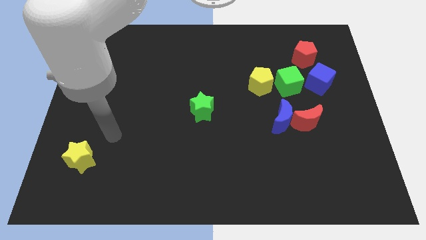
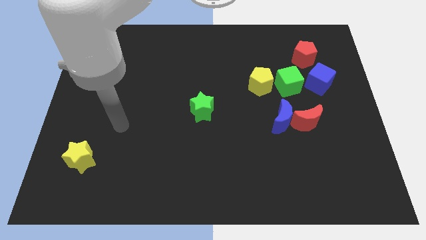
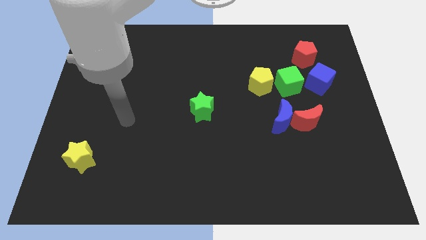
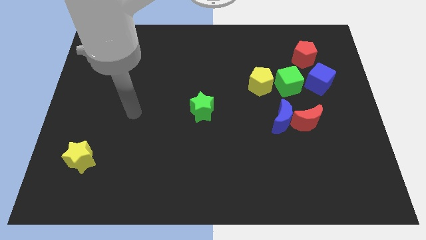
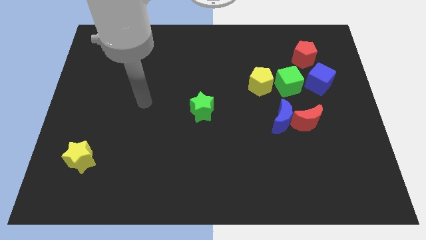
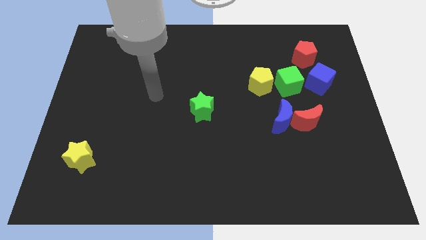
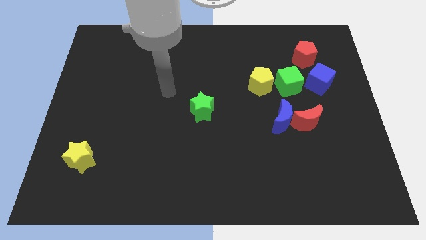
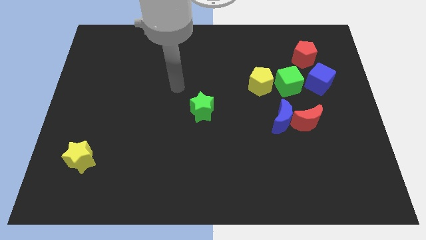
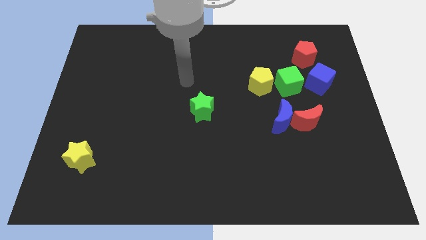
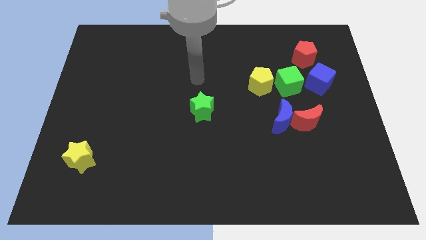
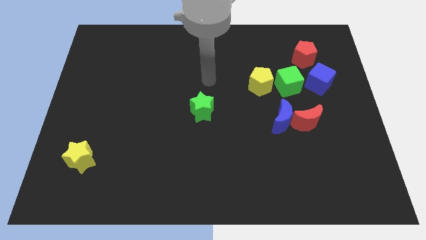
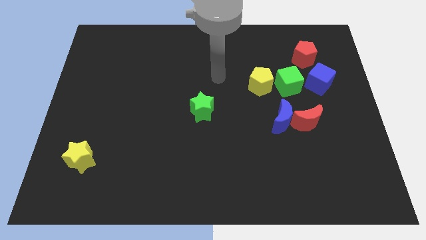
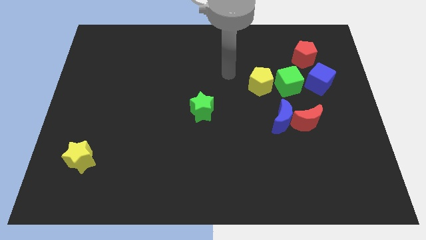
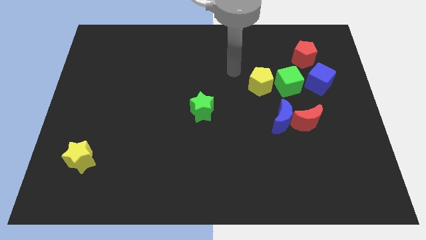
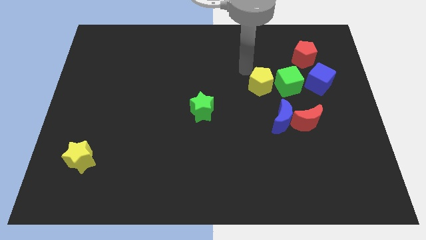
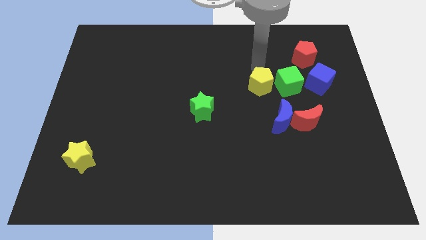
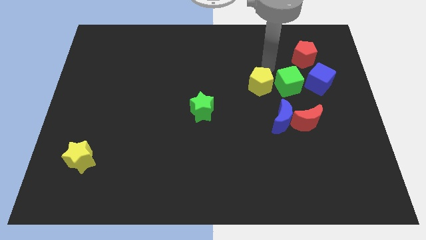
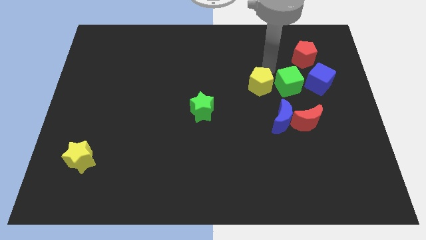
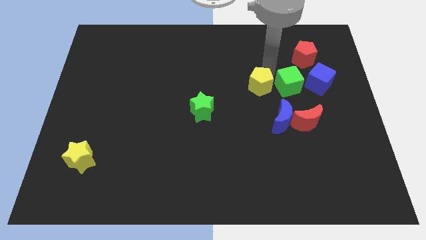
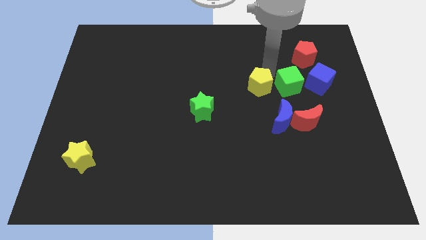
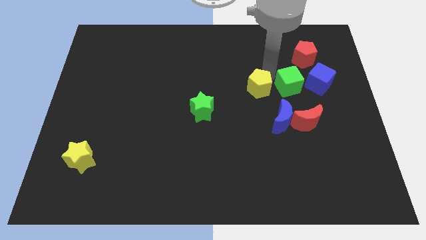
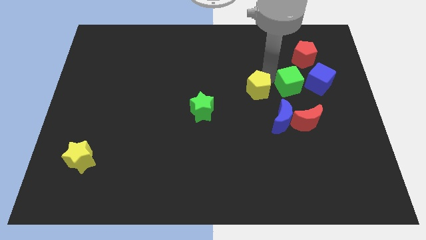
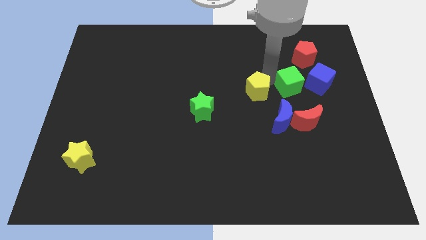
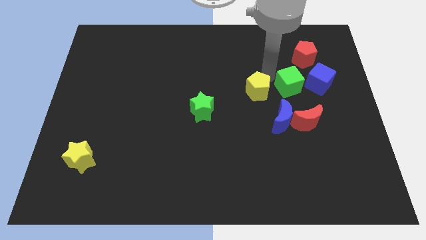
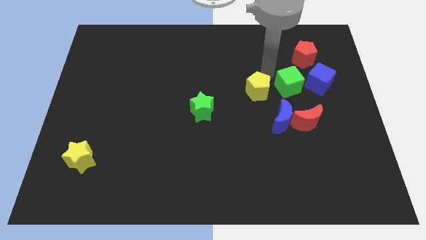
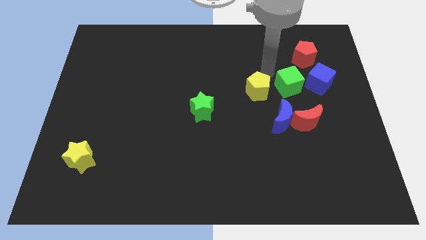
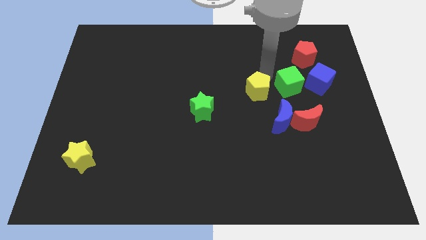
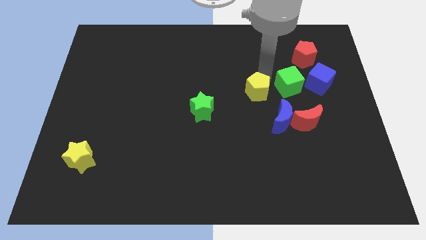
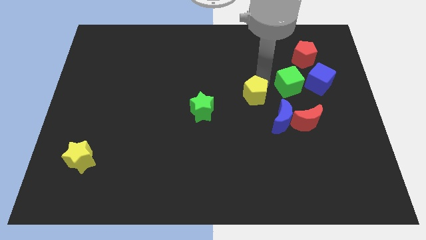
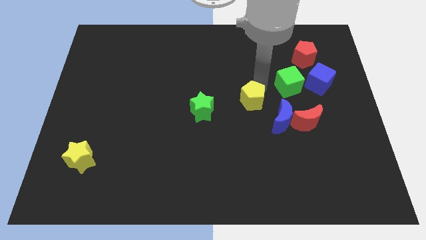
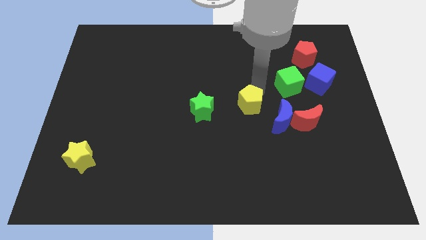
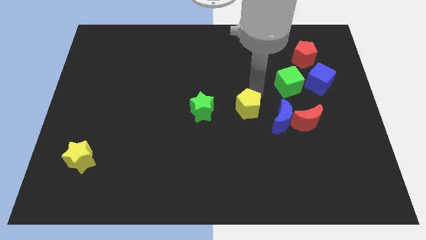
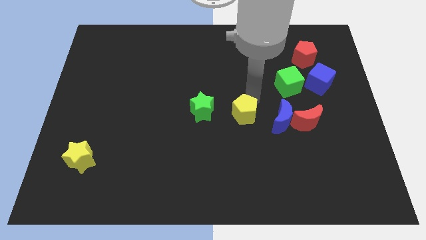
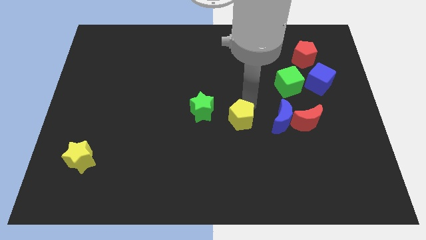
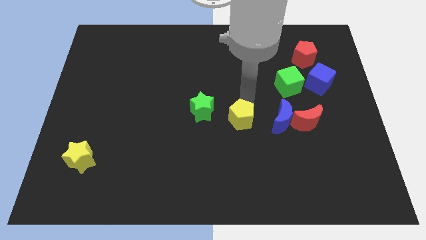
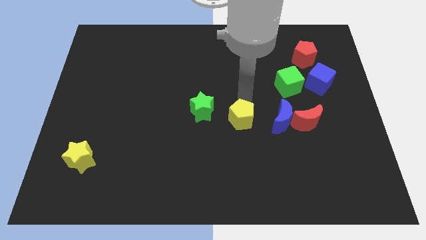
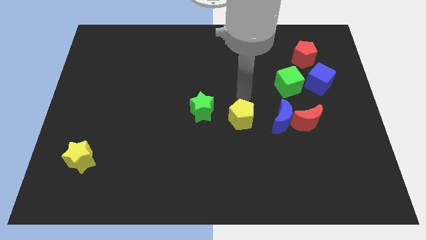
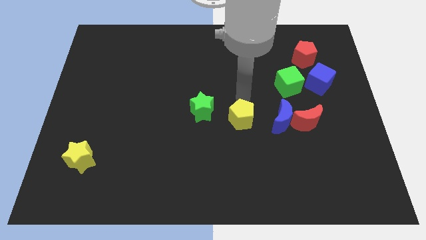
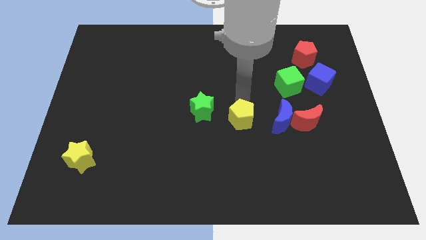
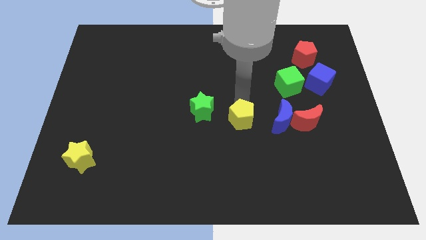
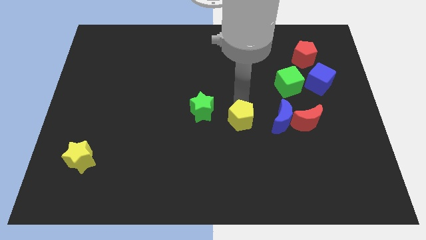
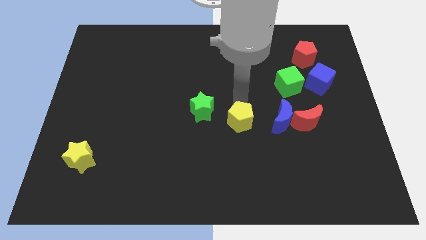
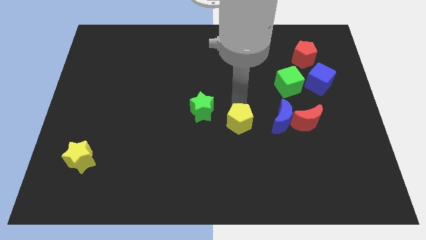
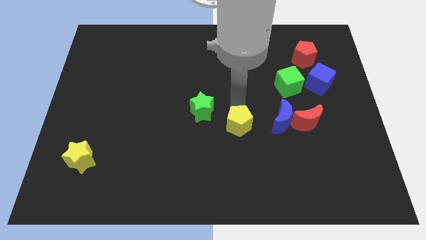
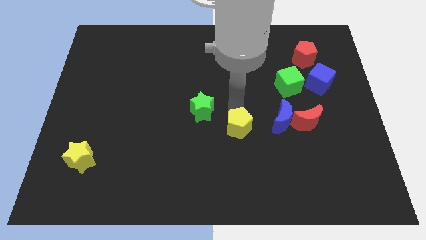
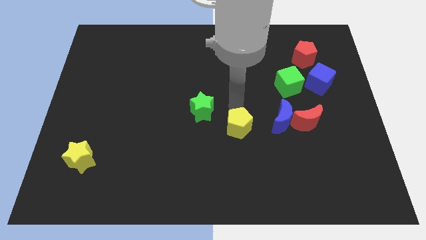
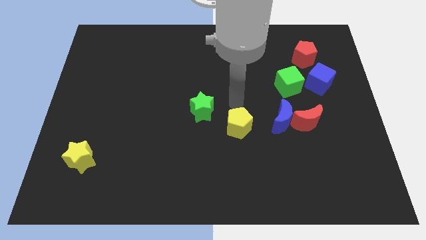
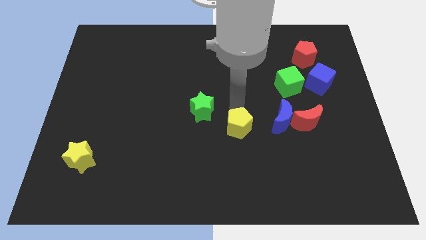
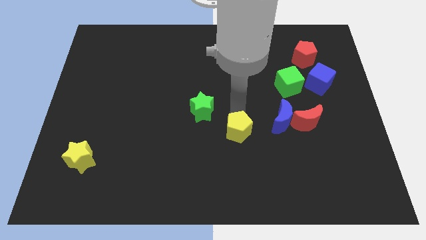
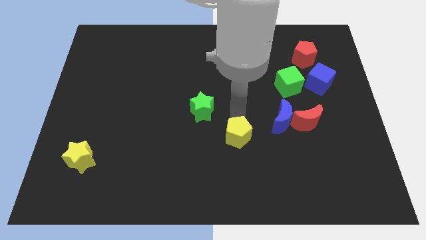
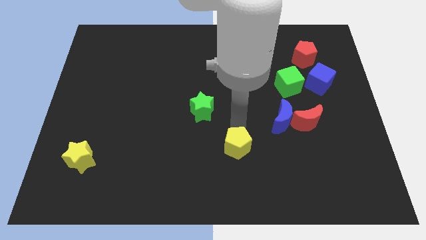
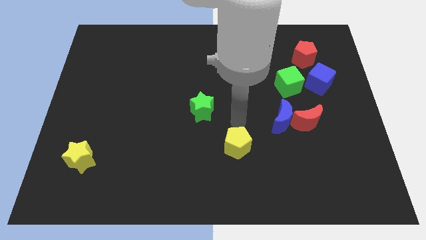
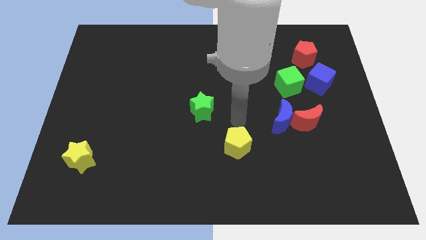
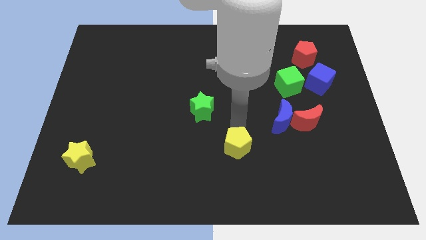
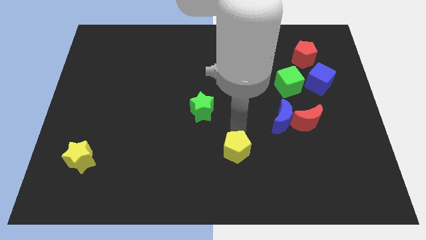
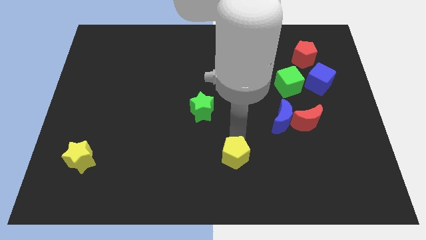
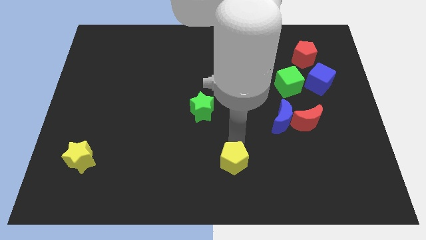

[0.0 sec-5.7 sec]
move the yellow pentagon to the bottom side

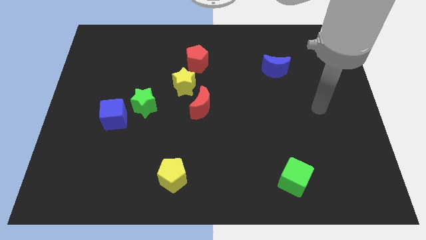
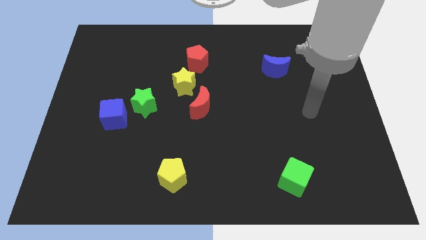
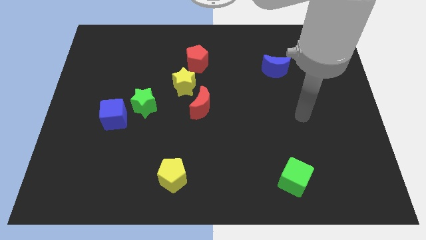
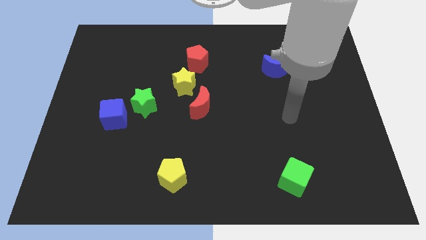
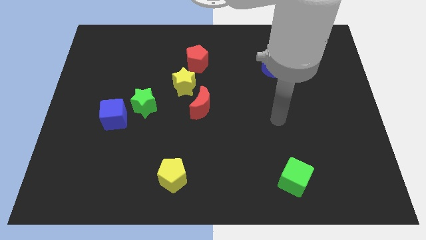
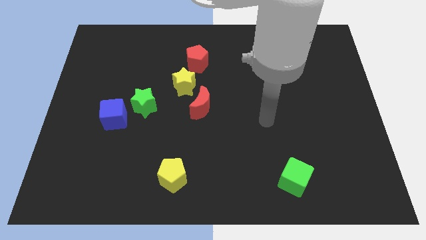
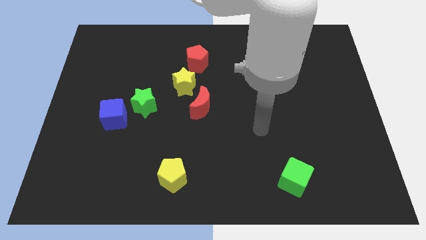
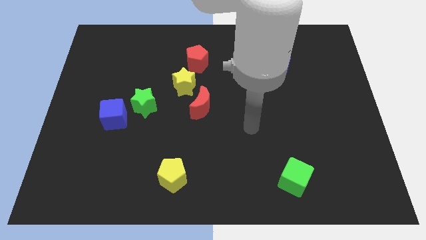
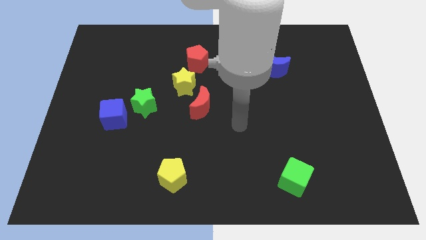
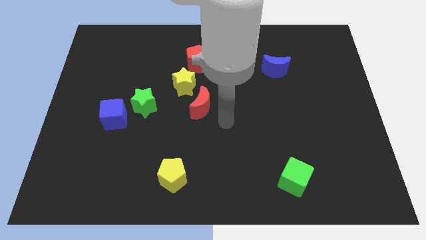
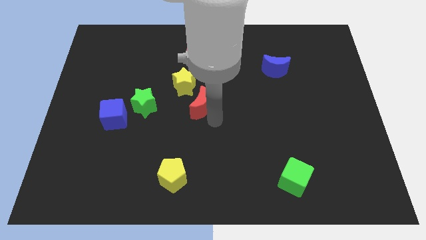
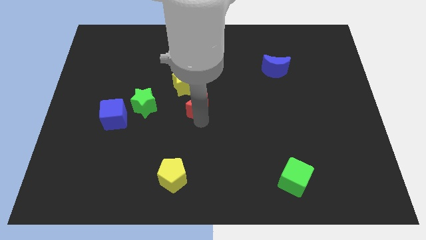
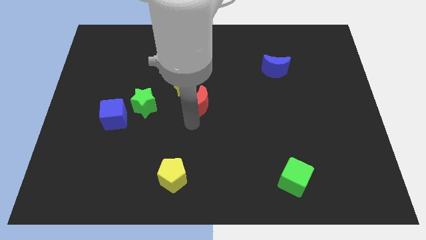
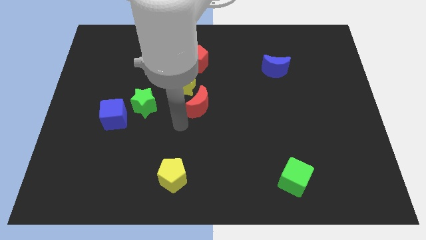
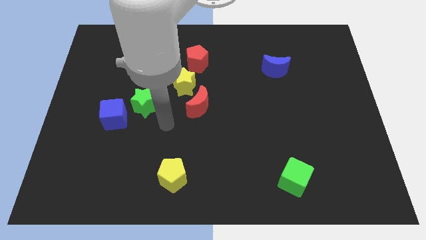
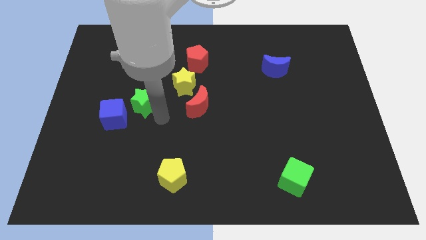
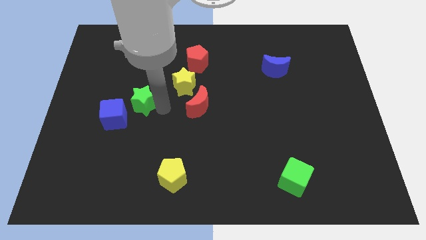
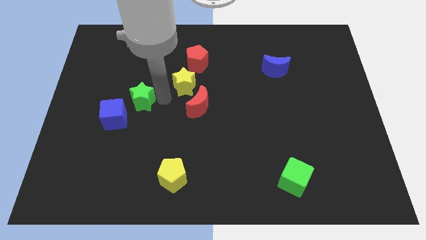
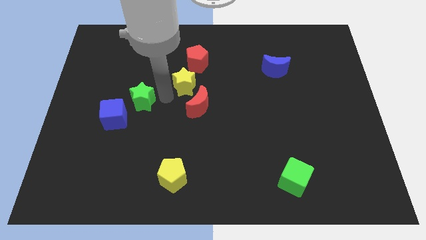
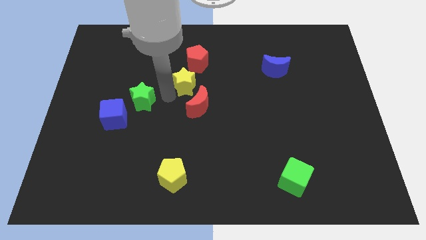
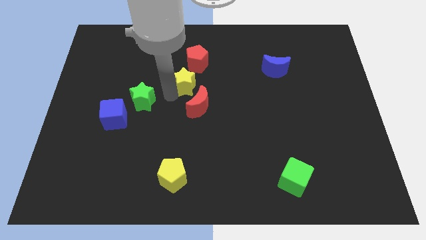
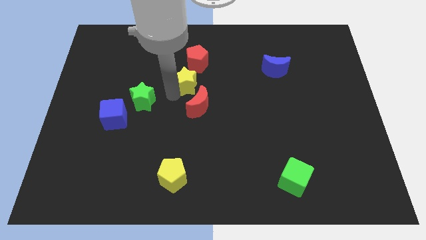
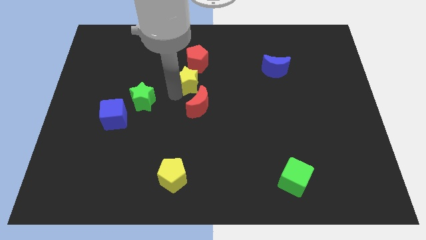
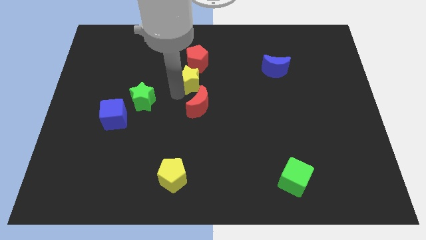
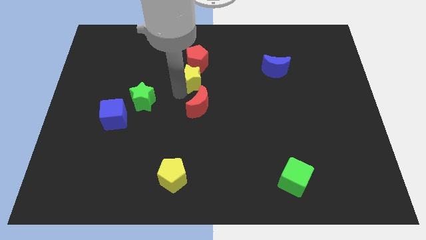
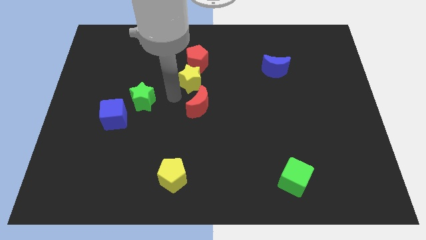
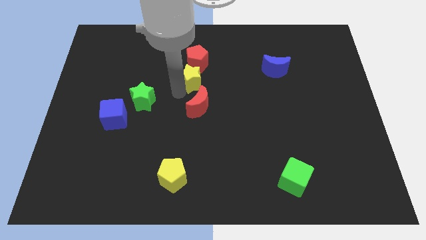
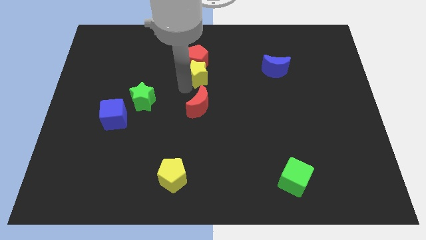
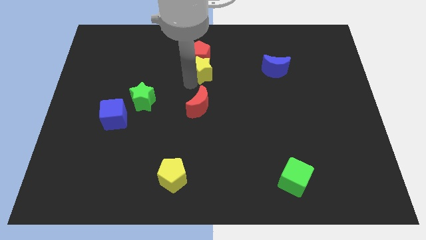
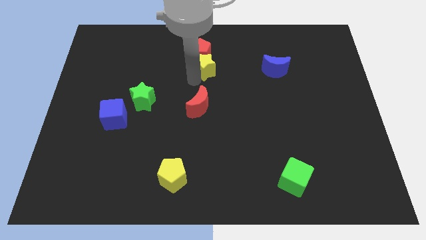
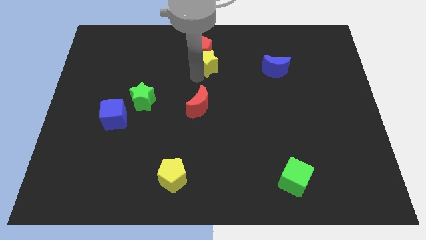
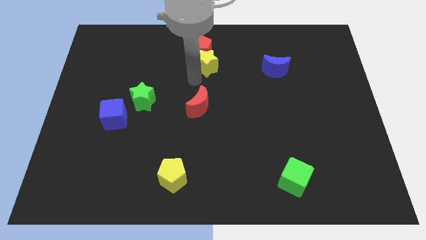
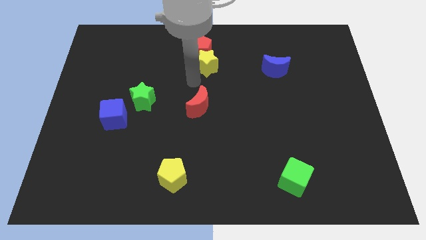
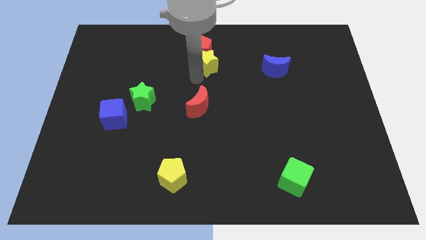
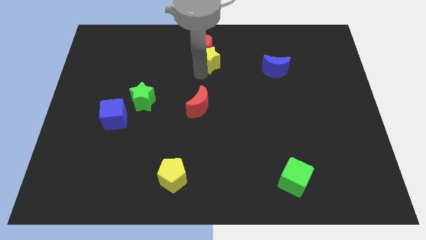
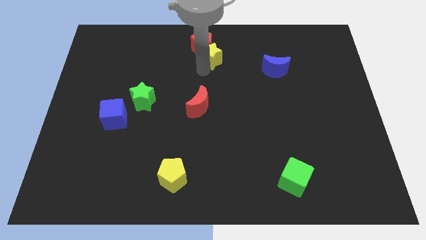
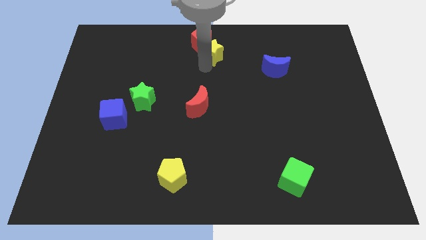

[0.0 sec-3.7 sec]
move the yellow star to the top side
